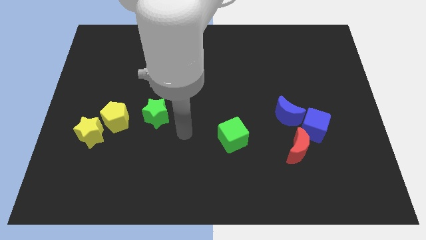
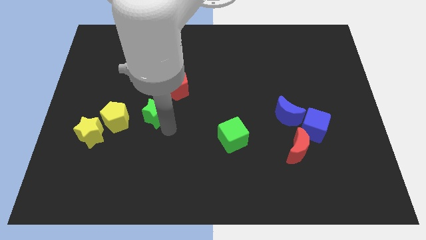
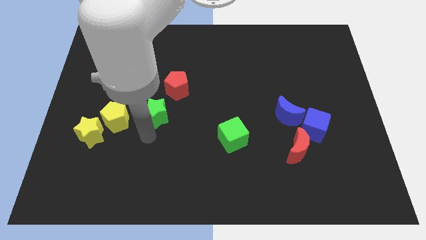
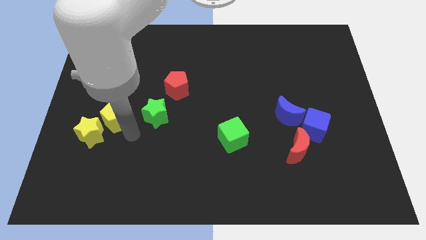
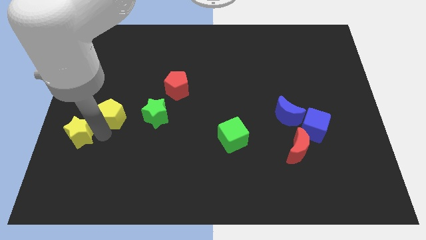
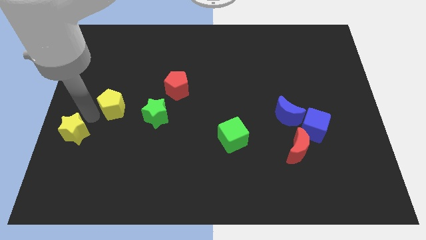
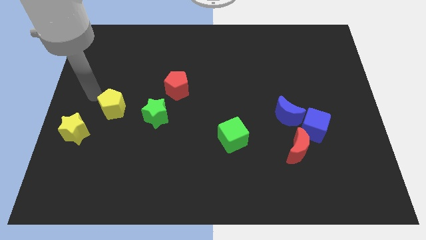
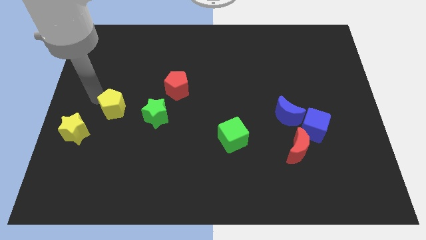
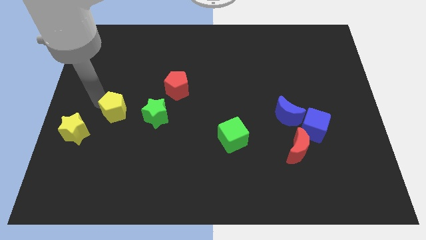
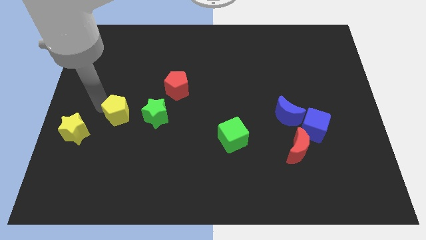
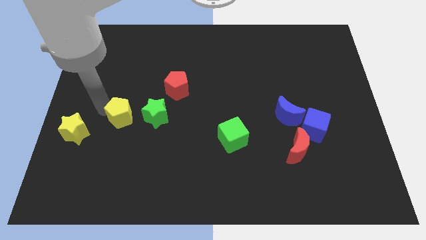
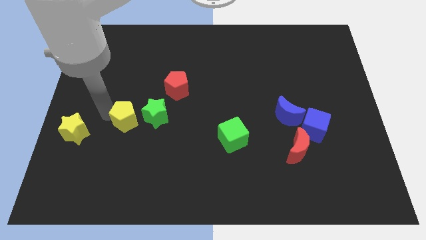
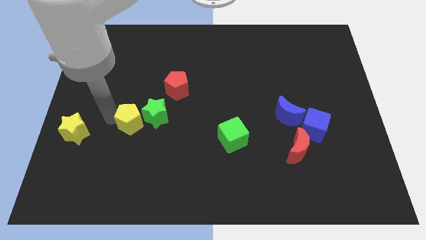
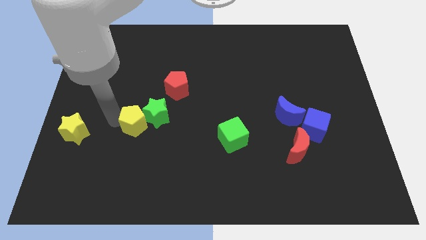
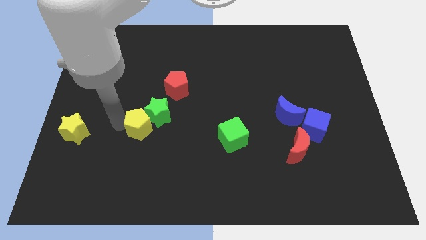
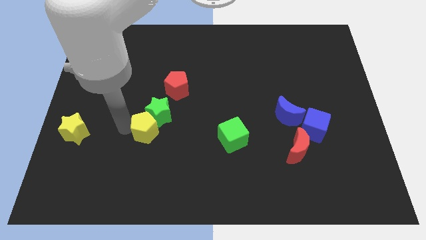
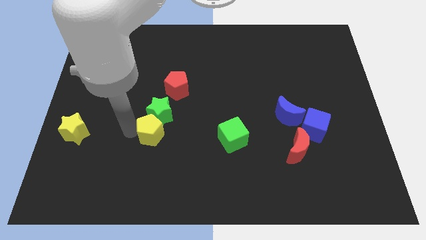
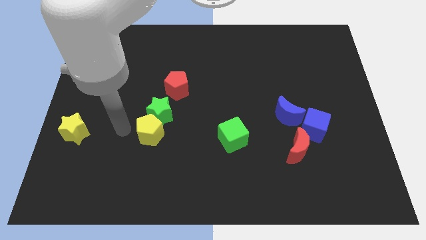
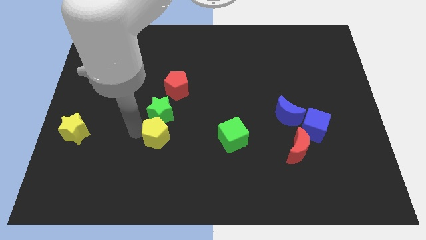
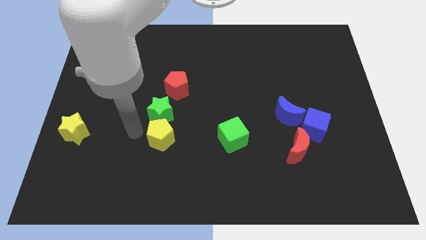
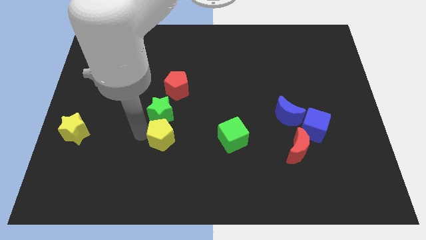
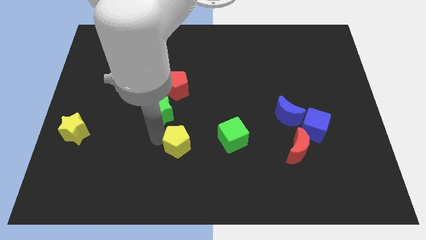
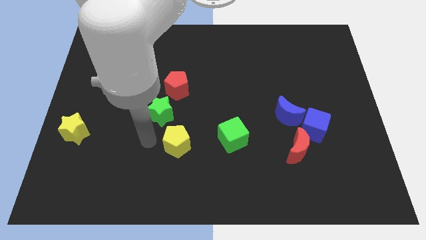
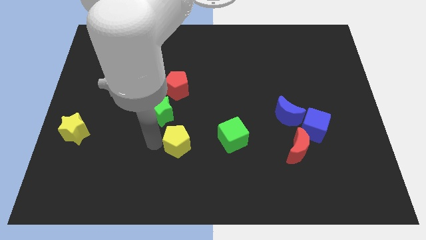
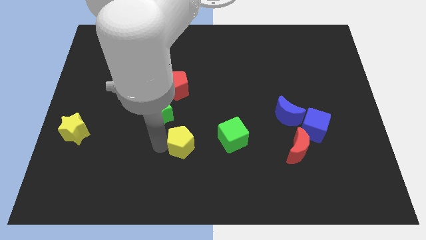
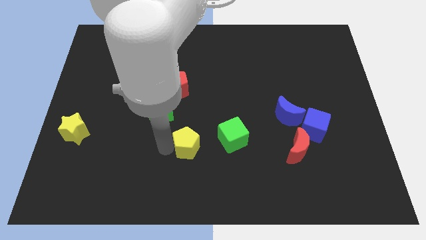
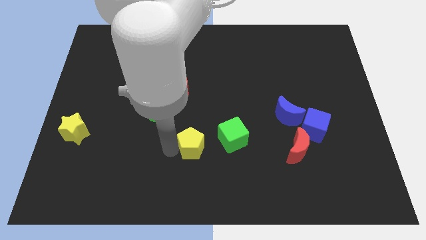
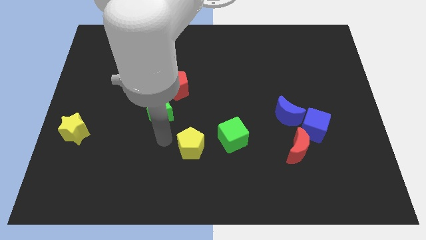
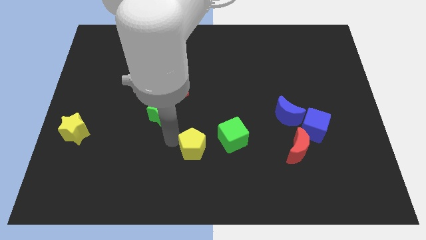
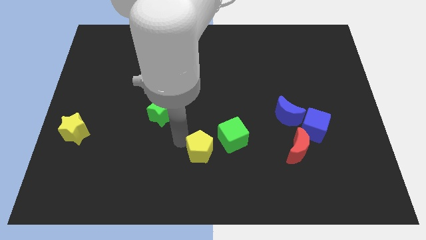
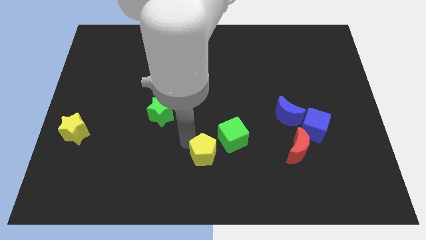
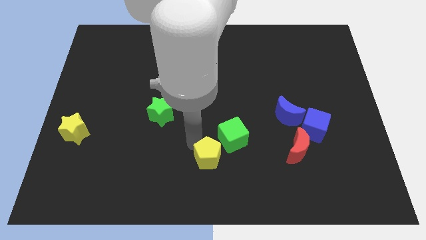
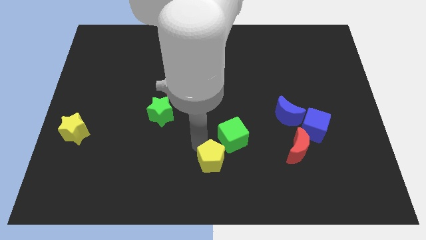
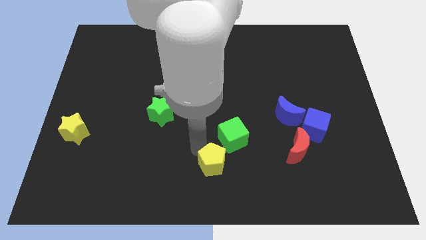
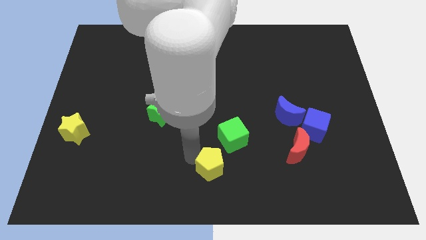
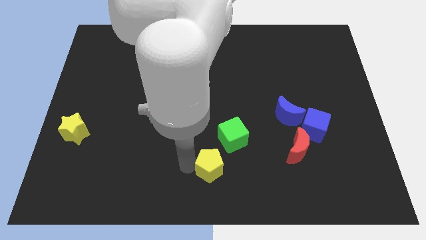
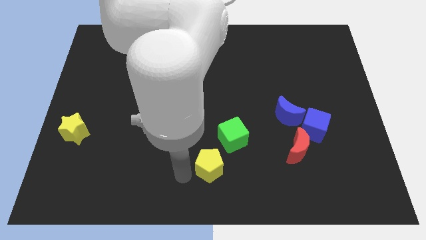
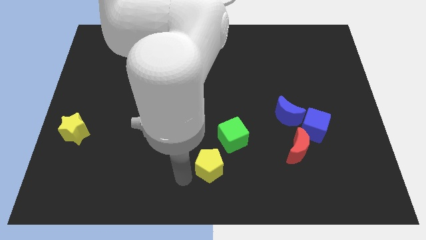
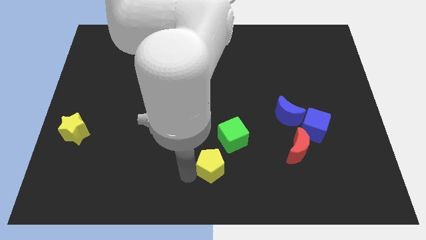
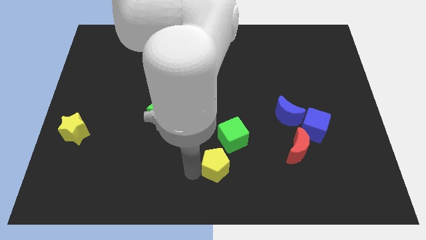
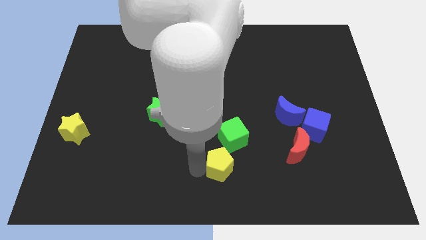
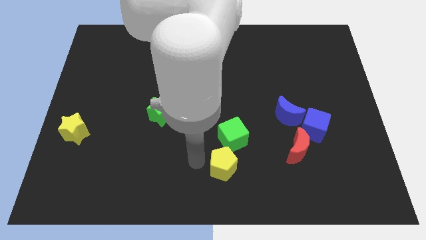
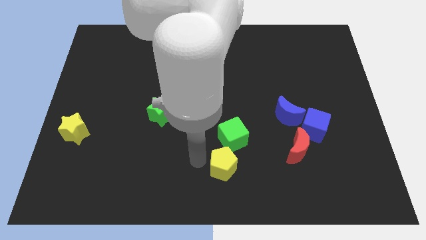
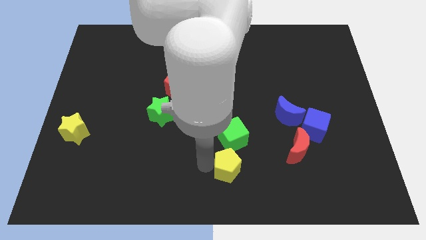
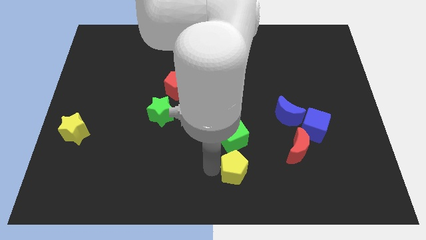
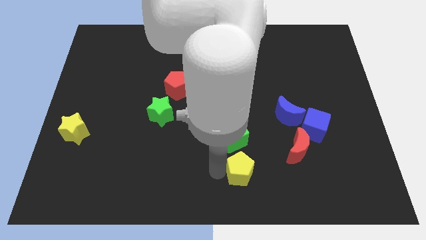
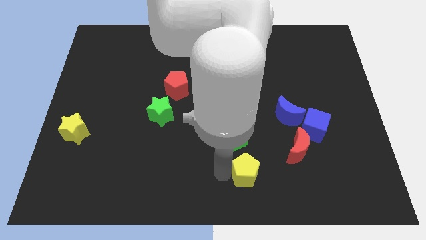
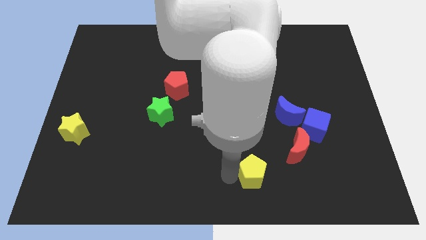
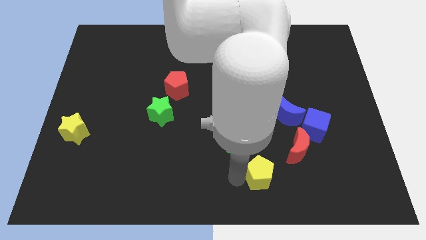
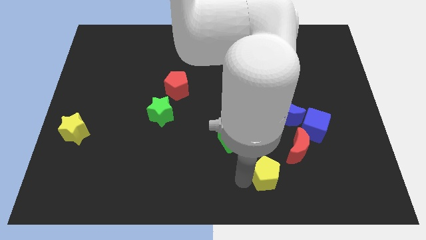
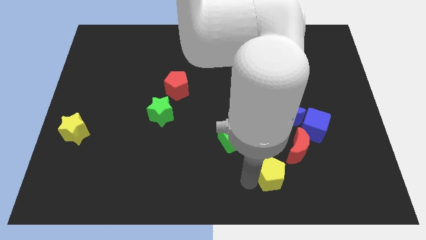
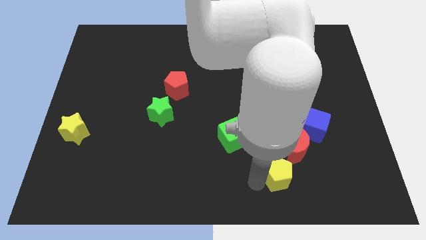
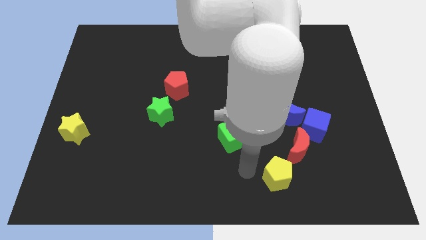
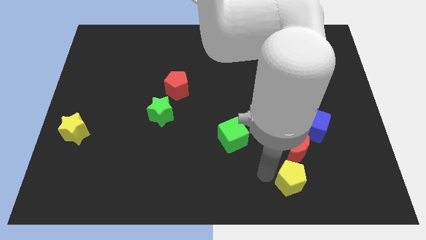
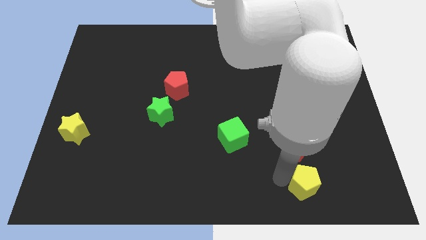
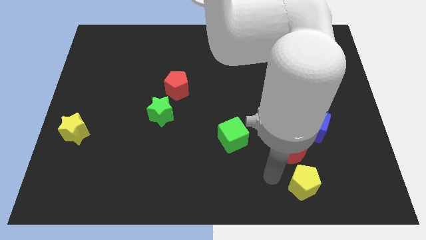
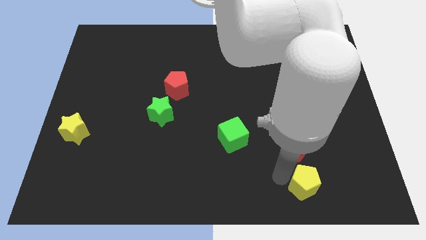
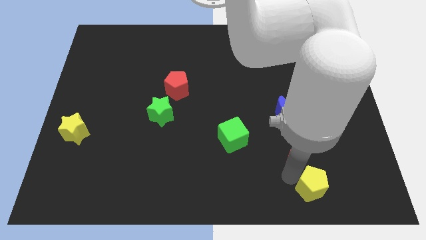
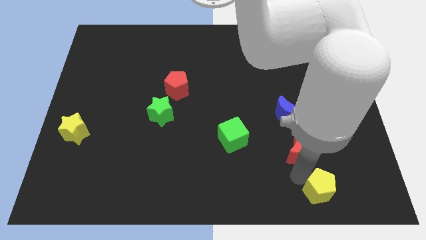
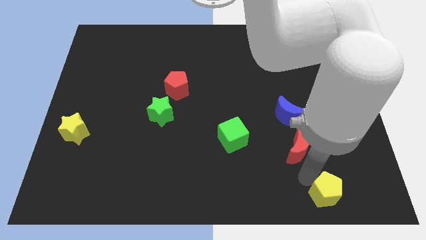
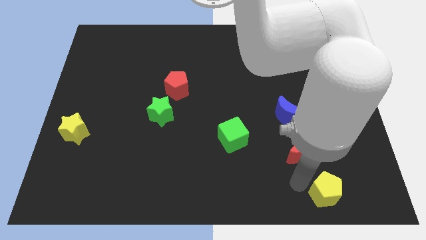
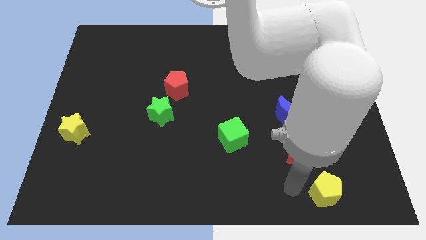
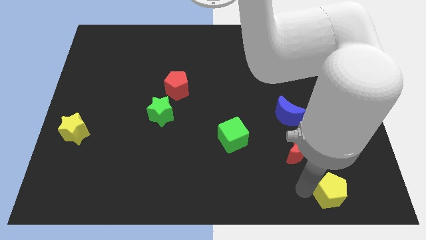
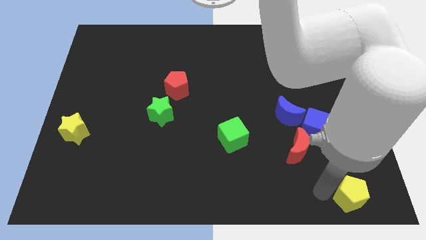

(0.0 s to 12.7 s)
slide the yellow pentagon to the lower right corner

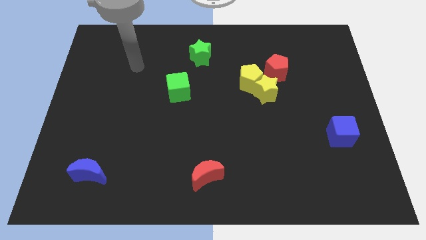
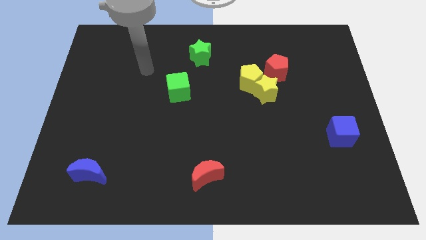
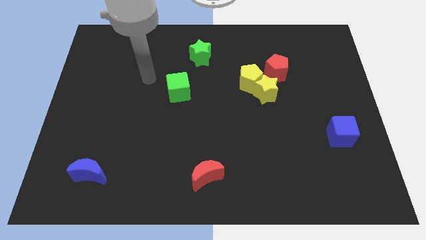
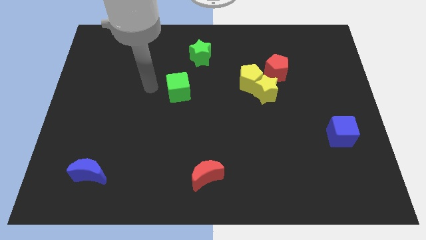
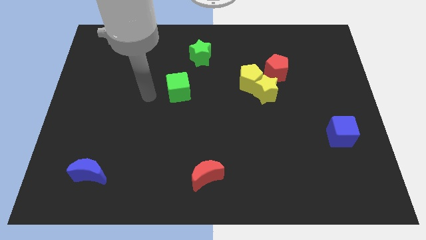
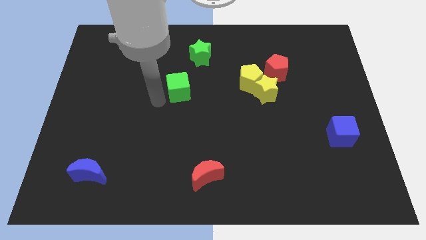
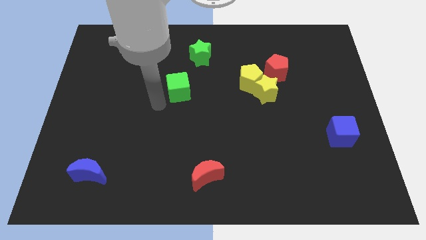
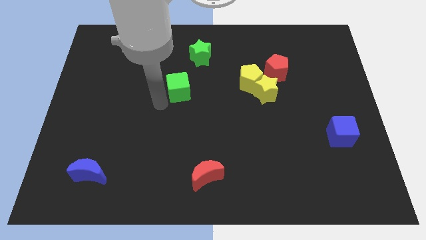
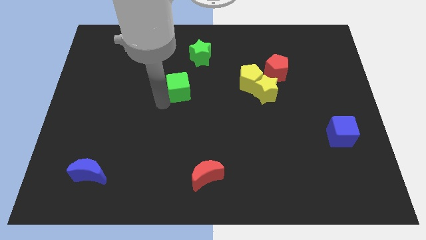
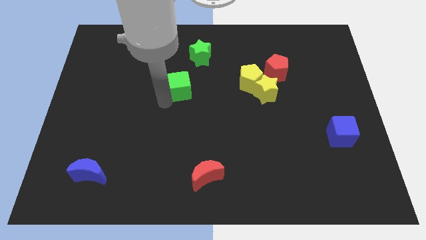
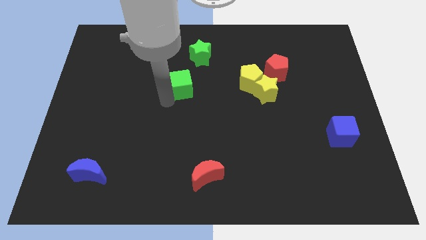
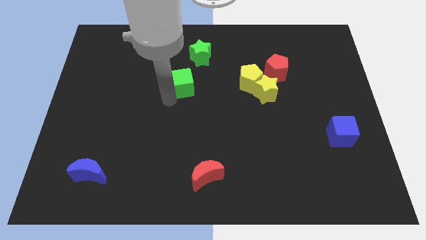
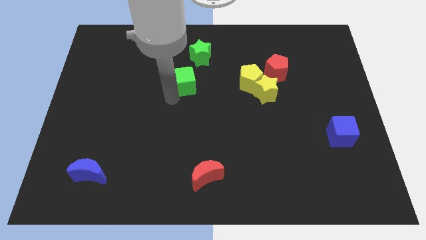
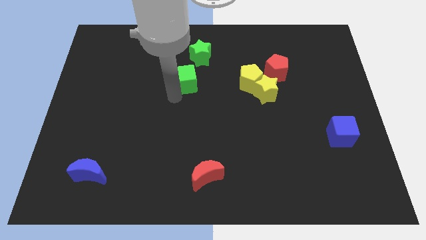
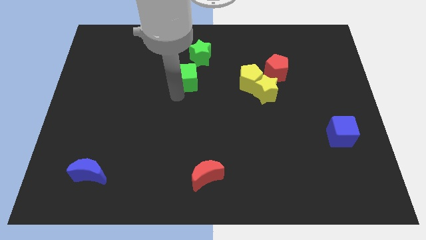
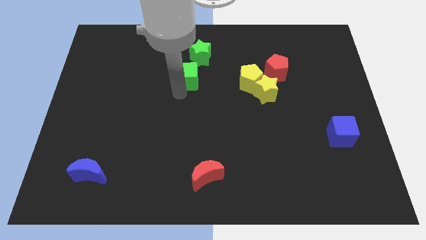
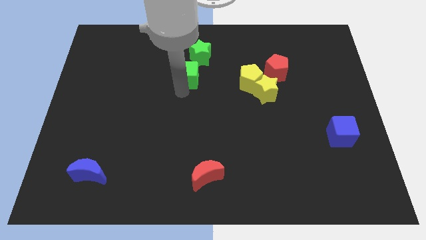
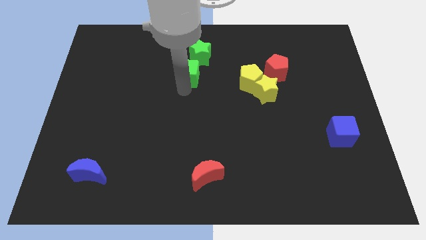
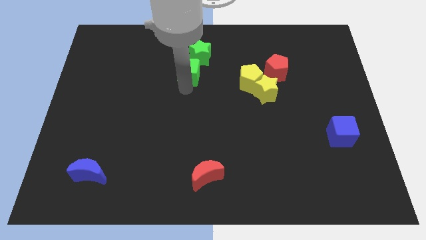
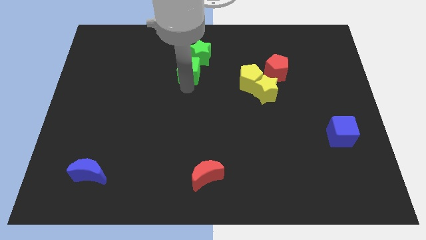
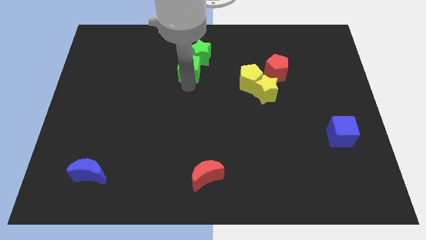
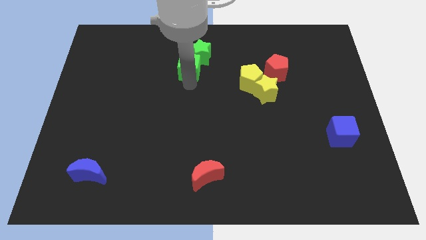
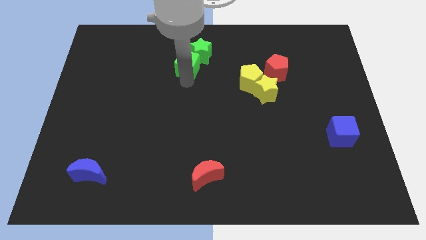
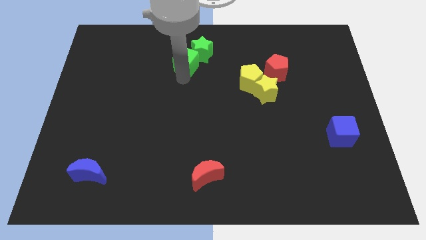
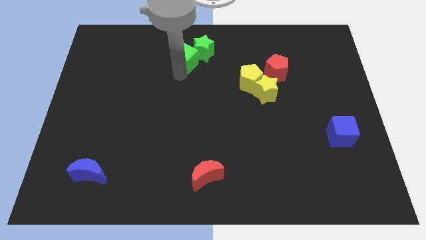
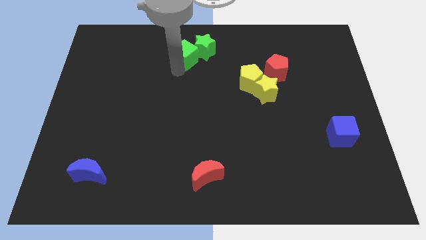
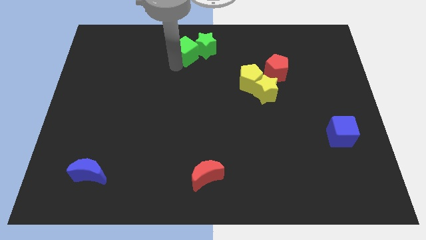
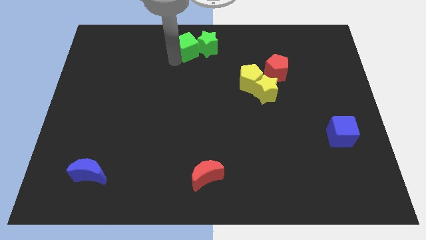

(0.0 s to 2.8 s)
push the green cube to the towards your base
